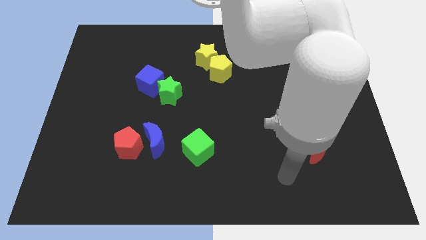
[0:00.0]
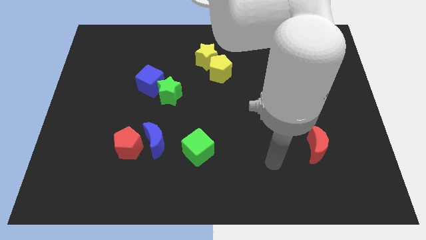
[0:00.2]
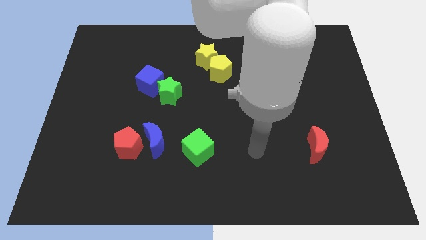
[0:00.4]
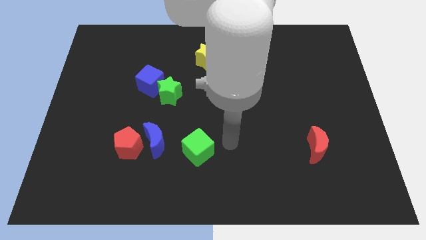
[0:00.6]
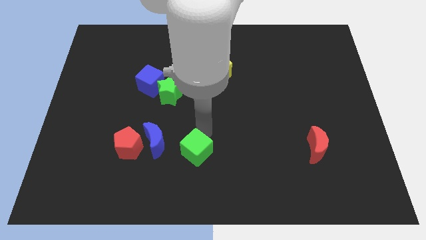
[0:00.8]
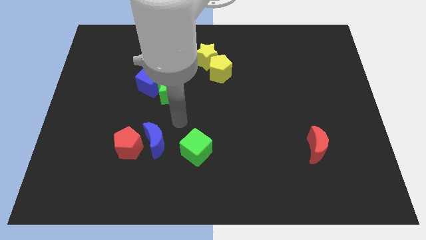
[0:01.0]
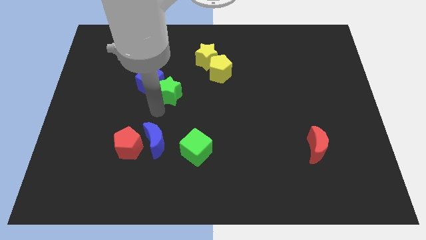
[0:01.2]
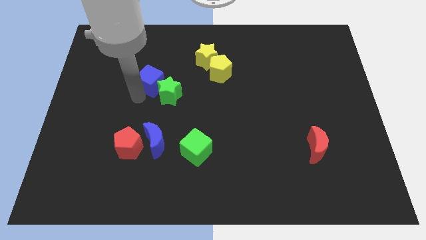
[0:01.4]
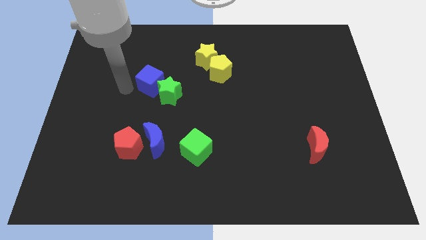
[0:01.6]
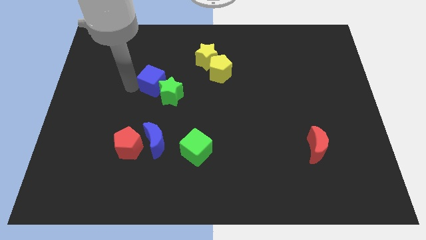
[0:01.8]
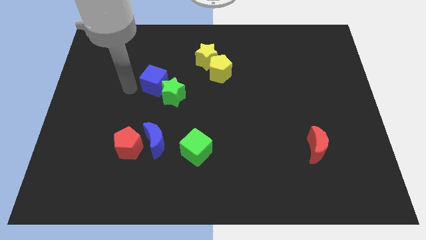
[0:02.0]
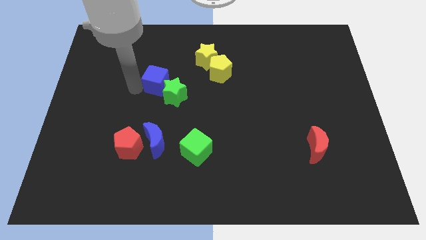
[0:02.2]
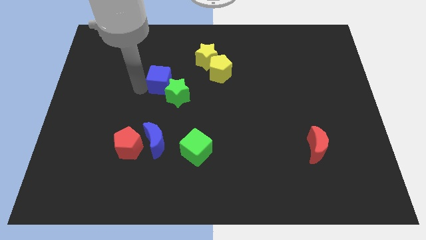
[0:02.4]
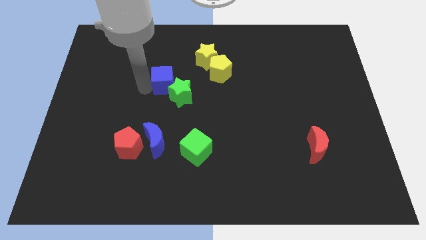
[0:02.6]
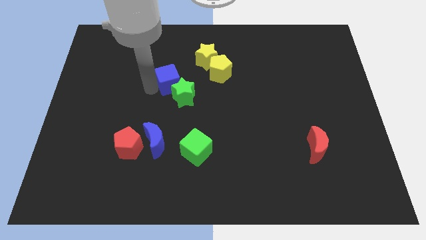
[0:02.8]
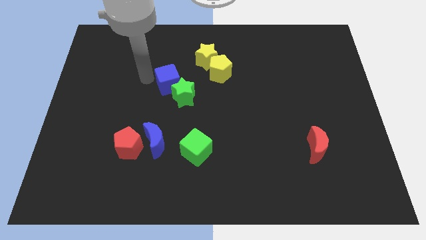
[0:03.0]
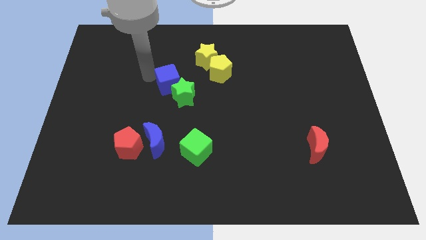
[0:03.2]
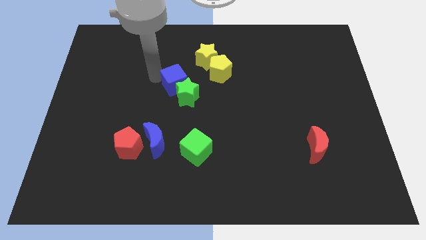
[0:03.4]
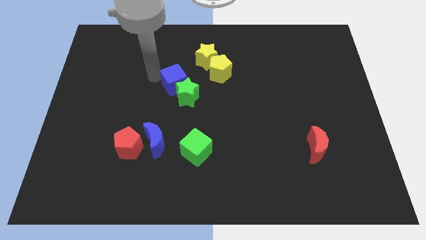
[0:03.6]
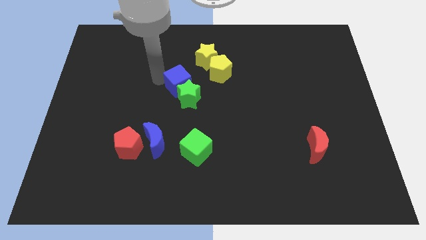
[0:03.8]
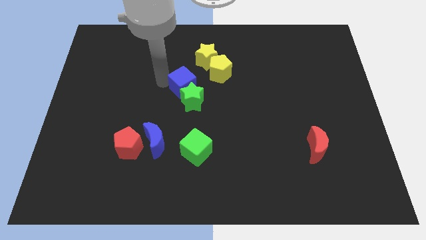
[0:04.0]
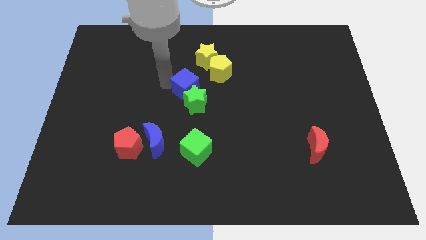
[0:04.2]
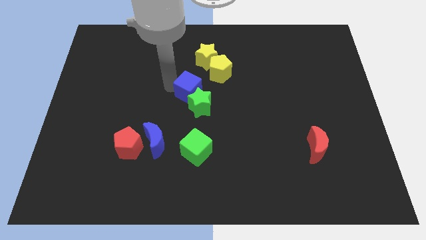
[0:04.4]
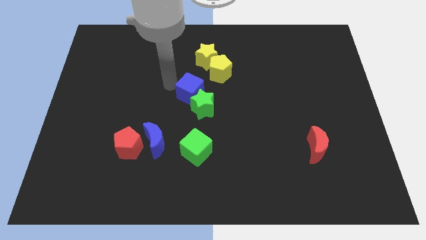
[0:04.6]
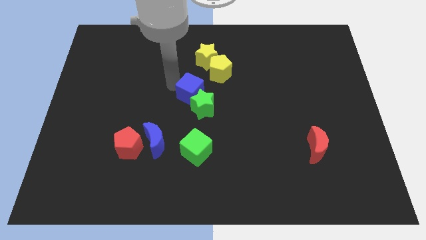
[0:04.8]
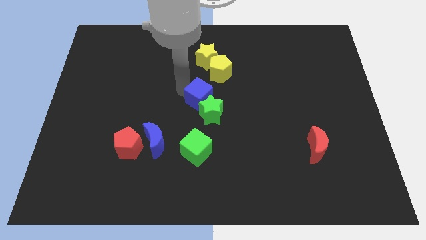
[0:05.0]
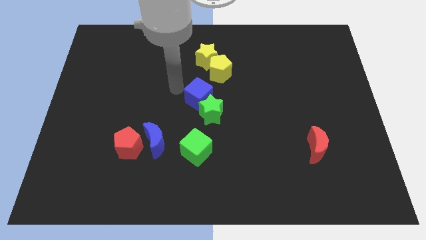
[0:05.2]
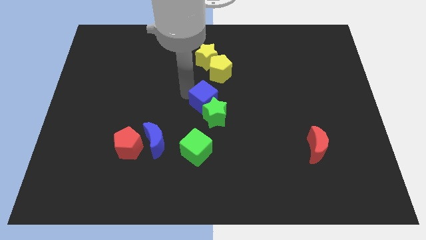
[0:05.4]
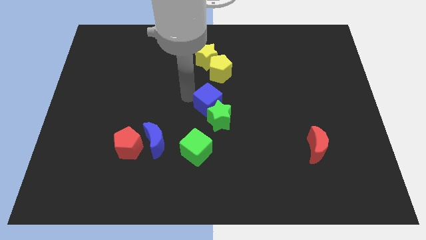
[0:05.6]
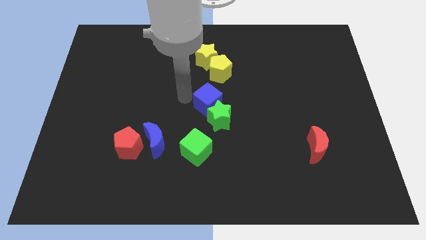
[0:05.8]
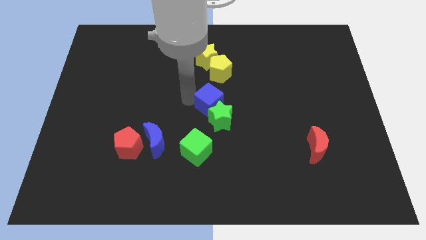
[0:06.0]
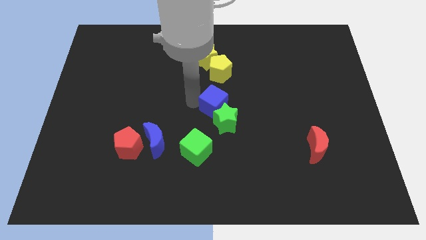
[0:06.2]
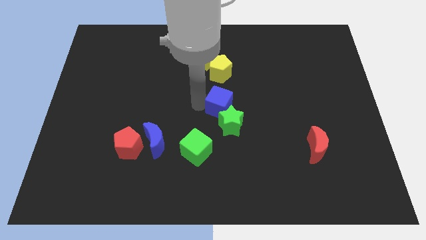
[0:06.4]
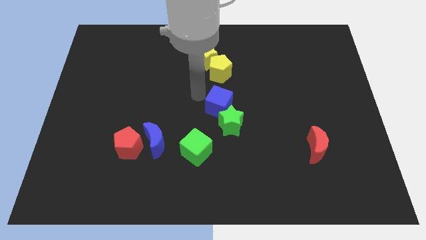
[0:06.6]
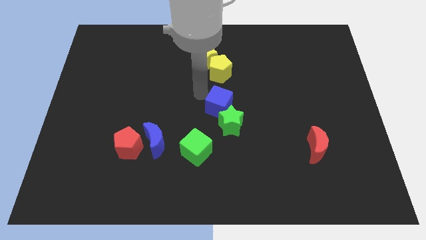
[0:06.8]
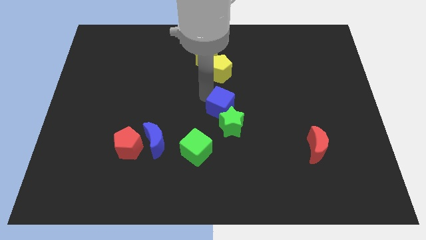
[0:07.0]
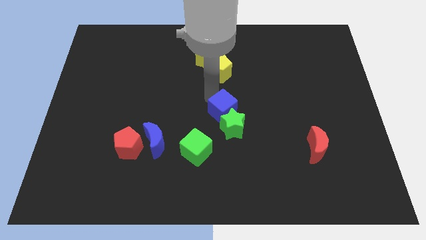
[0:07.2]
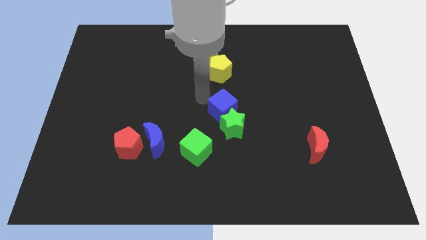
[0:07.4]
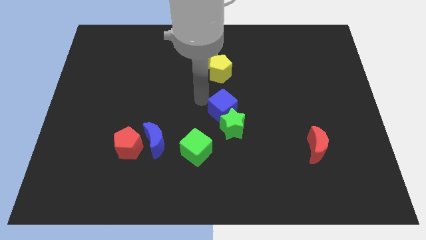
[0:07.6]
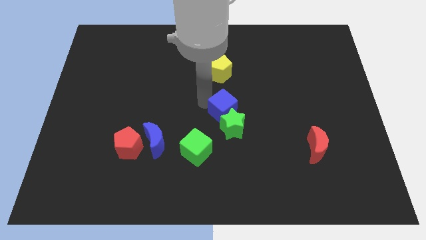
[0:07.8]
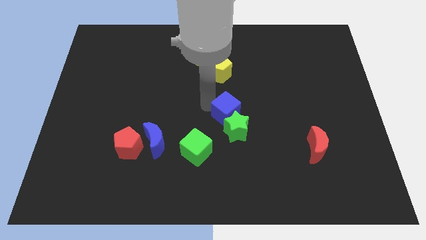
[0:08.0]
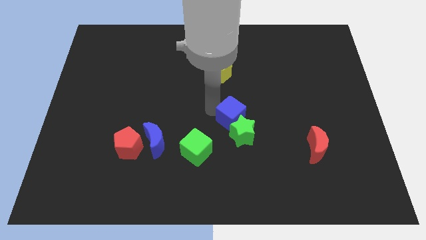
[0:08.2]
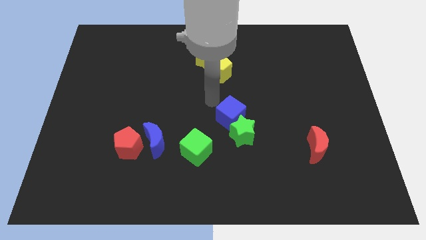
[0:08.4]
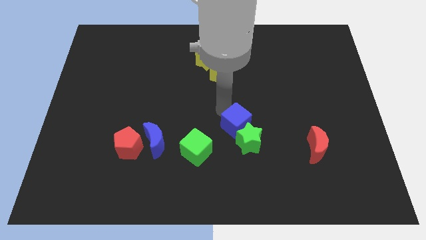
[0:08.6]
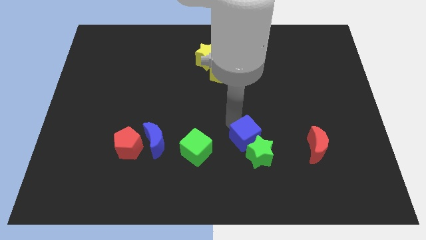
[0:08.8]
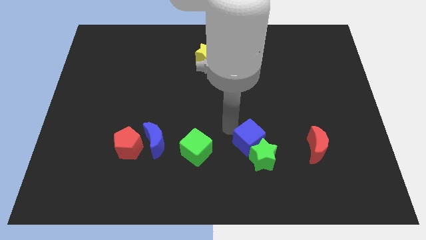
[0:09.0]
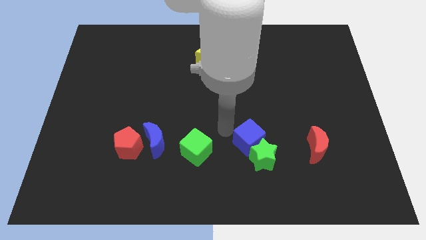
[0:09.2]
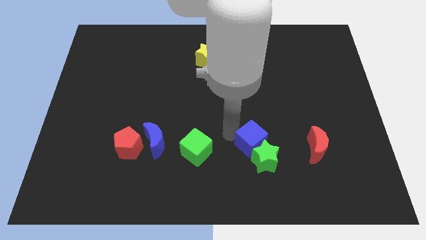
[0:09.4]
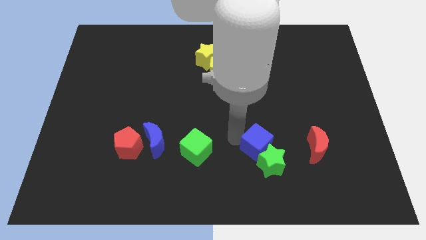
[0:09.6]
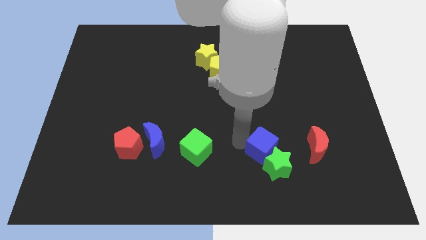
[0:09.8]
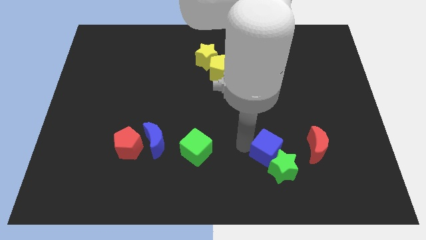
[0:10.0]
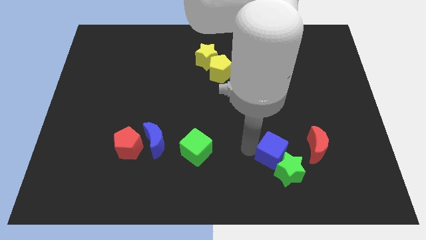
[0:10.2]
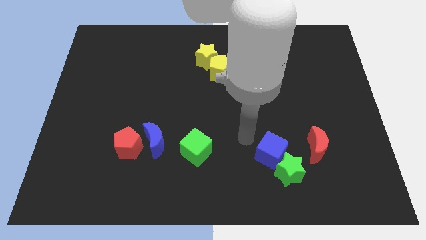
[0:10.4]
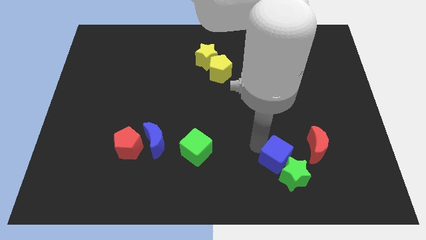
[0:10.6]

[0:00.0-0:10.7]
move the blue cube diagonally down and to the left of the red moon

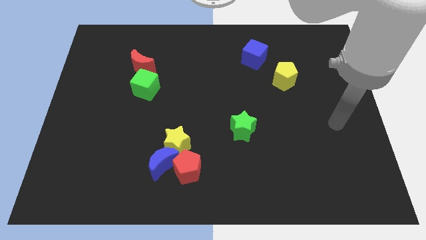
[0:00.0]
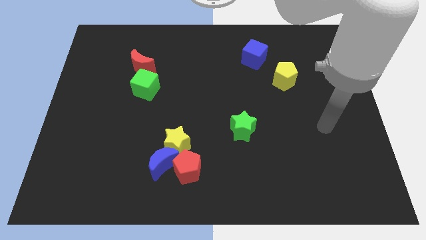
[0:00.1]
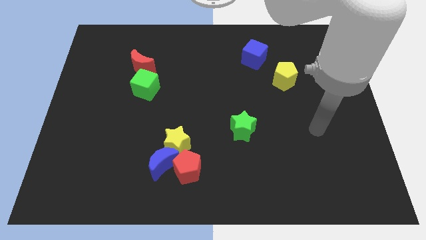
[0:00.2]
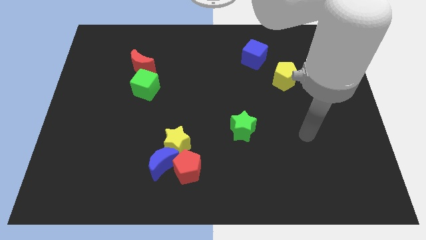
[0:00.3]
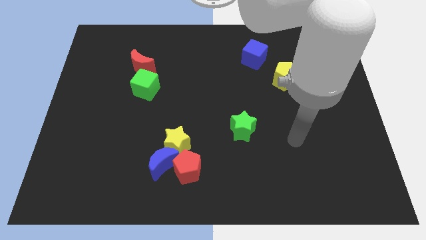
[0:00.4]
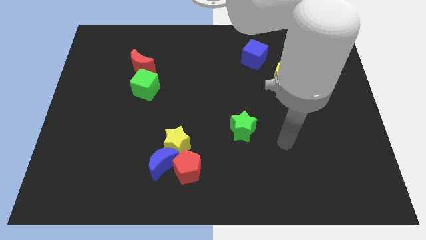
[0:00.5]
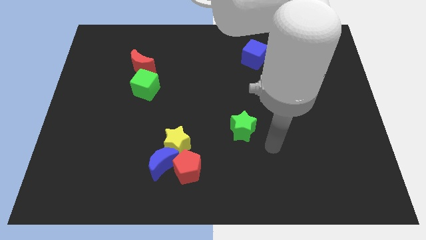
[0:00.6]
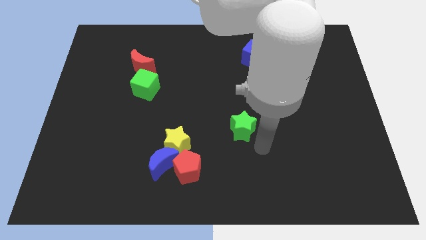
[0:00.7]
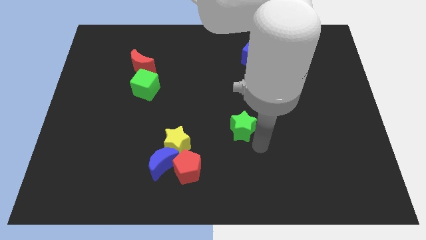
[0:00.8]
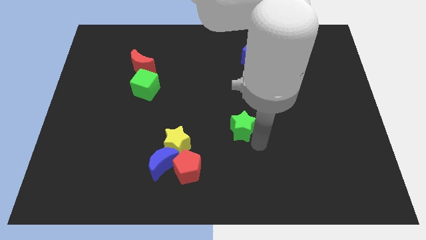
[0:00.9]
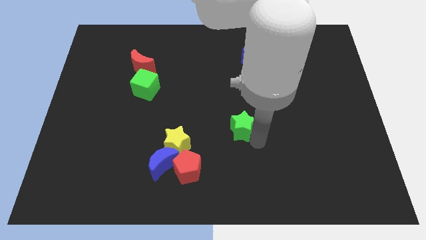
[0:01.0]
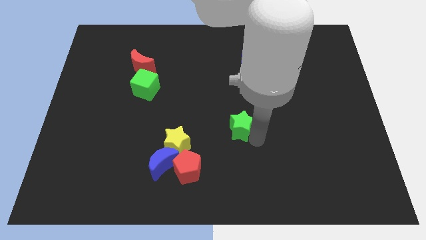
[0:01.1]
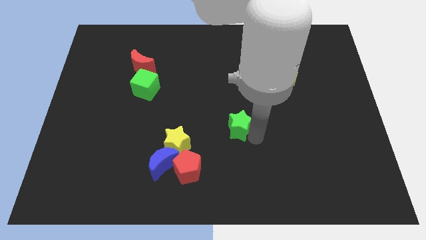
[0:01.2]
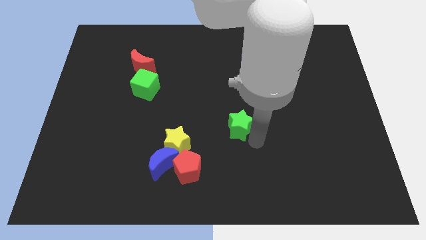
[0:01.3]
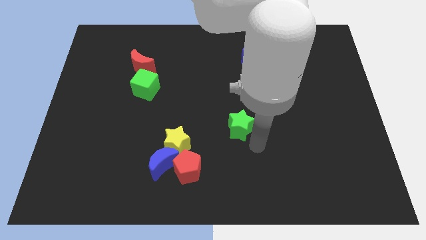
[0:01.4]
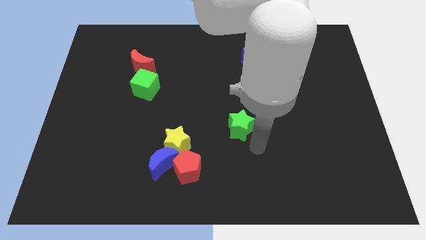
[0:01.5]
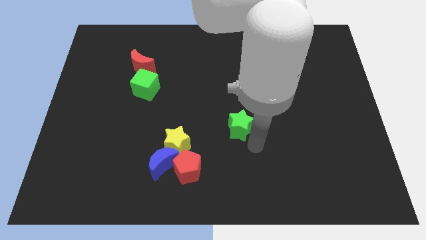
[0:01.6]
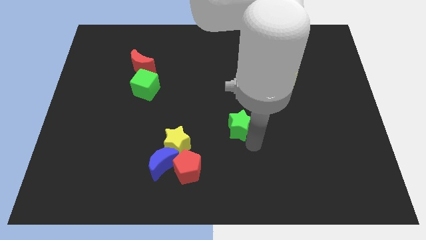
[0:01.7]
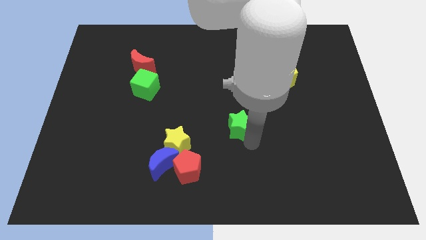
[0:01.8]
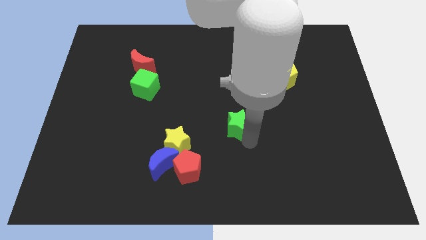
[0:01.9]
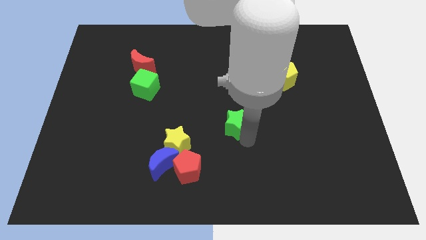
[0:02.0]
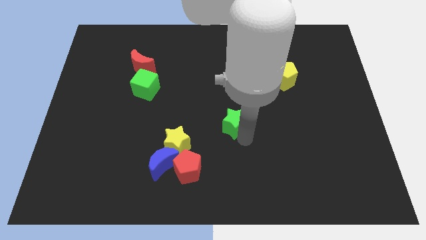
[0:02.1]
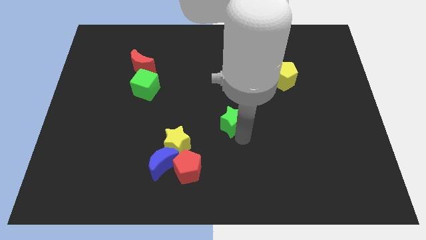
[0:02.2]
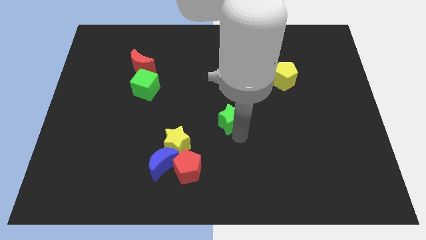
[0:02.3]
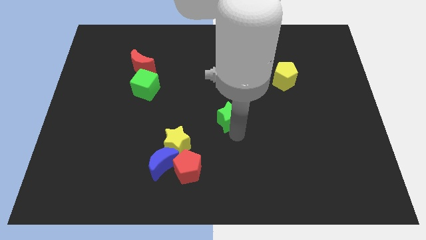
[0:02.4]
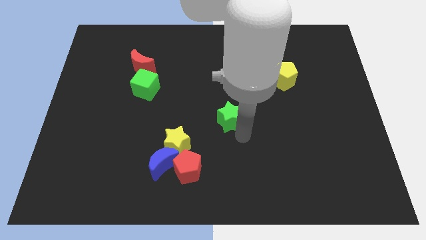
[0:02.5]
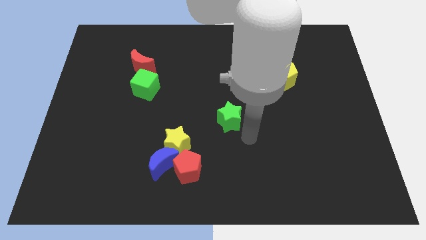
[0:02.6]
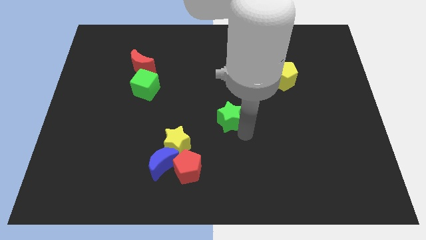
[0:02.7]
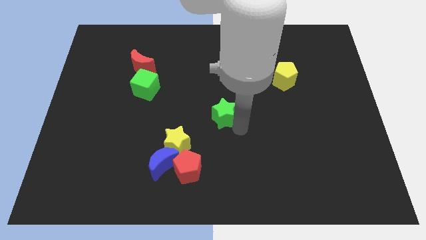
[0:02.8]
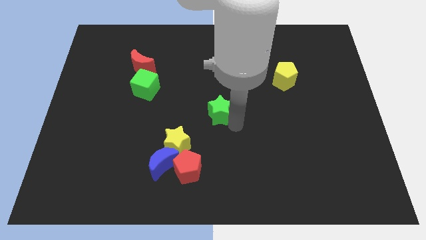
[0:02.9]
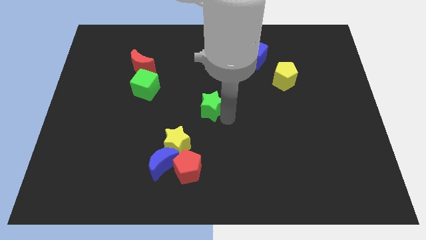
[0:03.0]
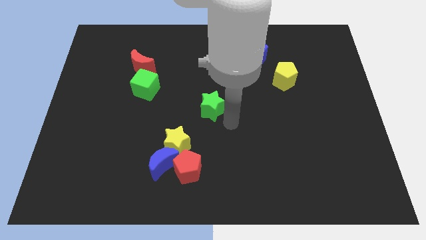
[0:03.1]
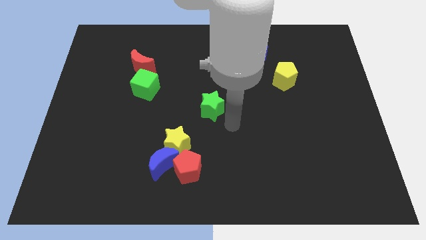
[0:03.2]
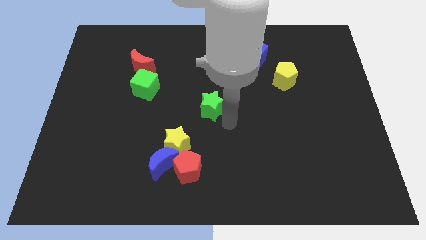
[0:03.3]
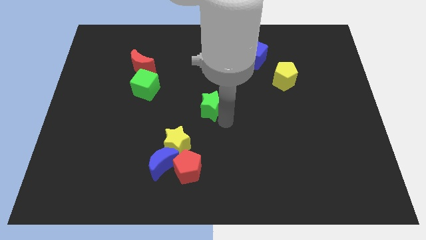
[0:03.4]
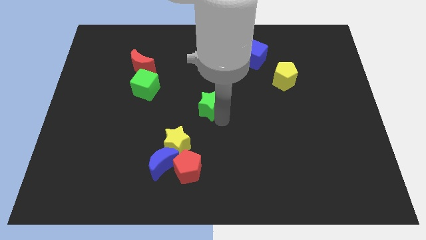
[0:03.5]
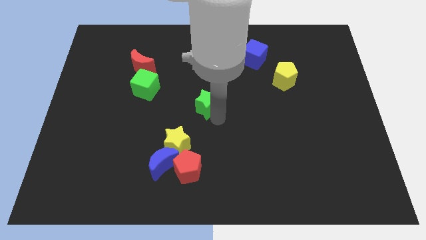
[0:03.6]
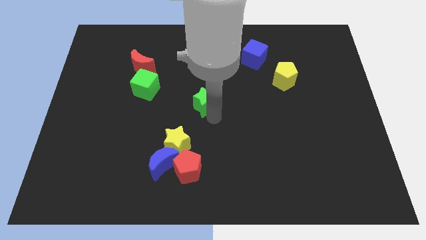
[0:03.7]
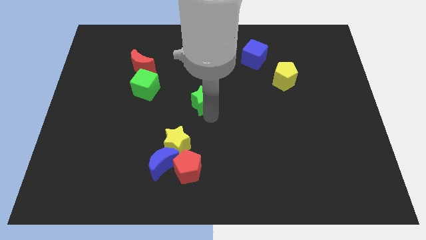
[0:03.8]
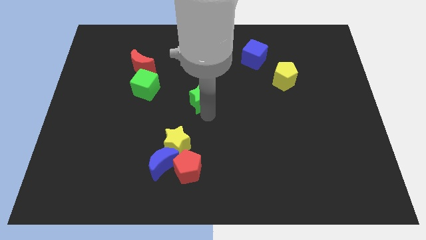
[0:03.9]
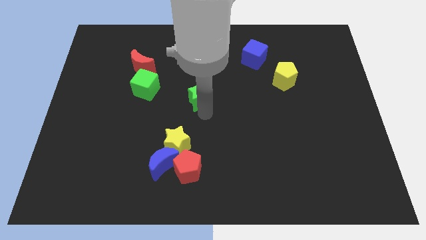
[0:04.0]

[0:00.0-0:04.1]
put the green star just right of the green cube
